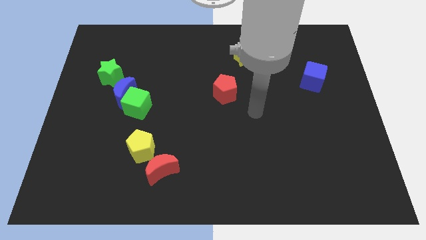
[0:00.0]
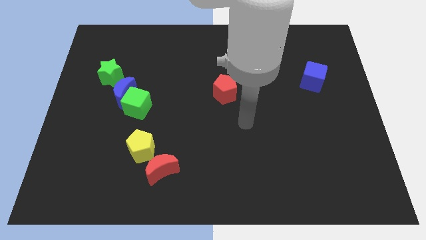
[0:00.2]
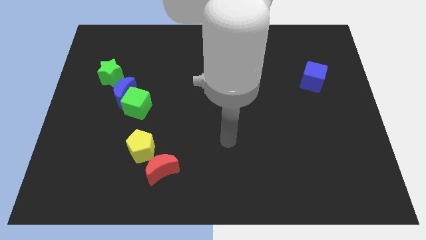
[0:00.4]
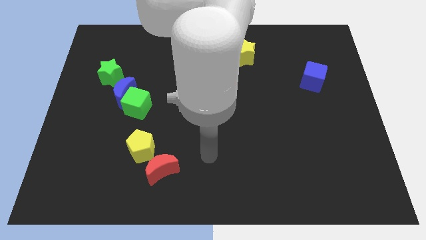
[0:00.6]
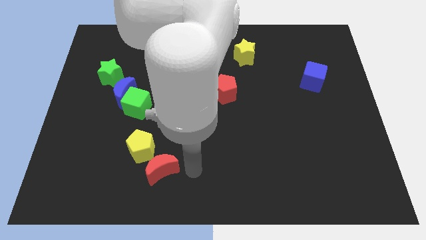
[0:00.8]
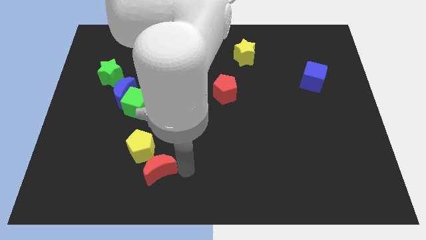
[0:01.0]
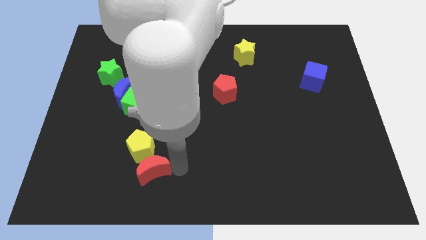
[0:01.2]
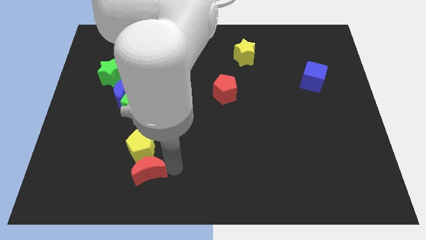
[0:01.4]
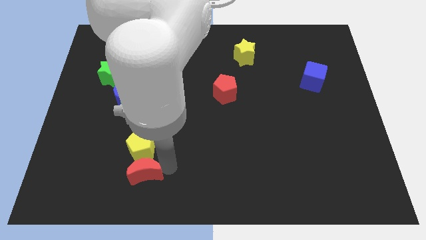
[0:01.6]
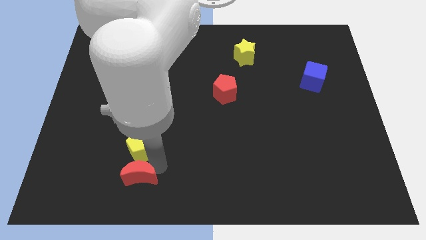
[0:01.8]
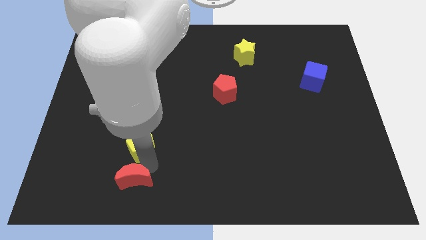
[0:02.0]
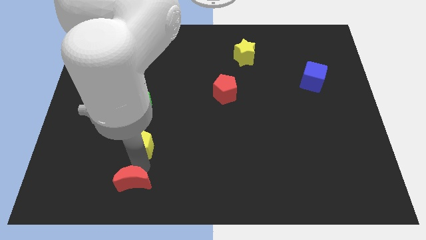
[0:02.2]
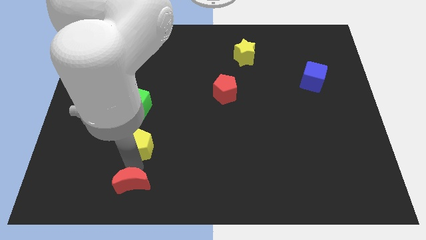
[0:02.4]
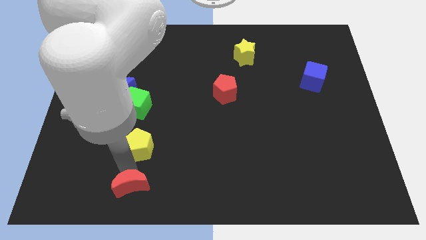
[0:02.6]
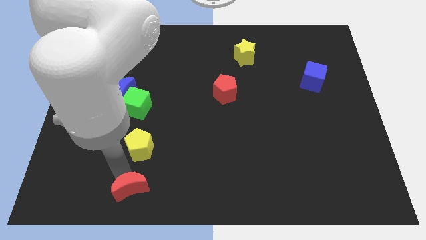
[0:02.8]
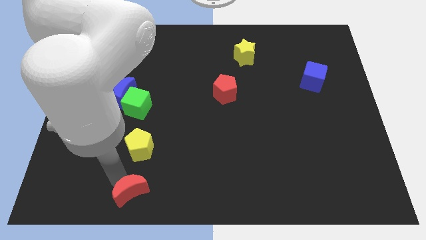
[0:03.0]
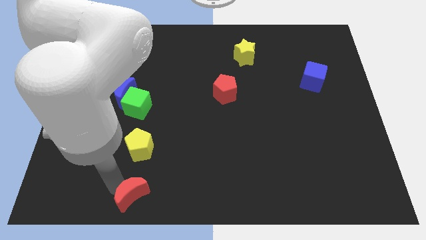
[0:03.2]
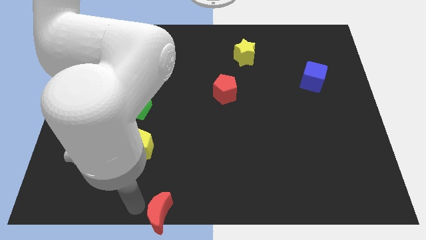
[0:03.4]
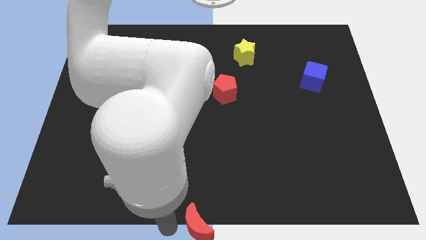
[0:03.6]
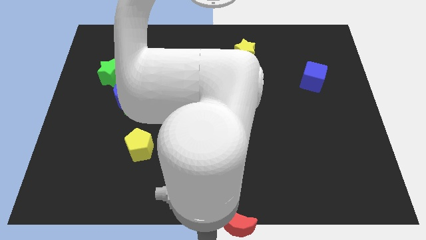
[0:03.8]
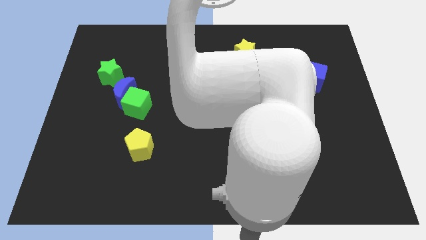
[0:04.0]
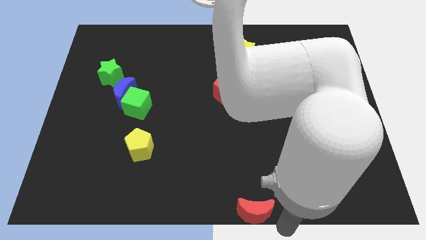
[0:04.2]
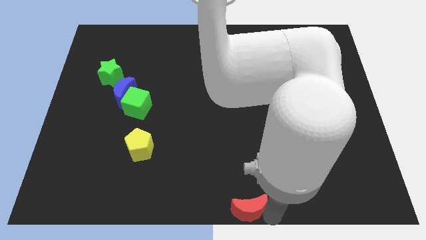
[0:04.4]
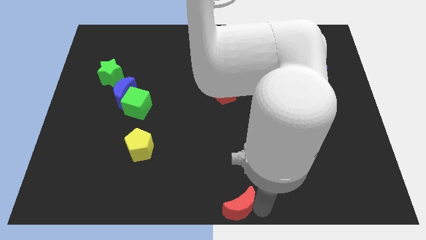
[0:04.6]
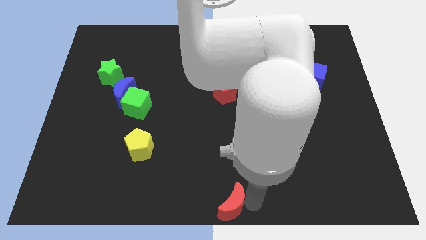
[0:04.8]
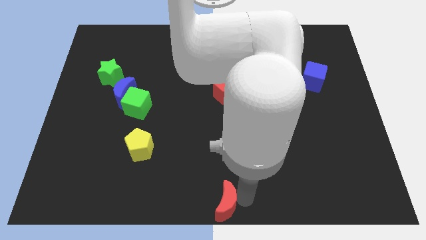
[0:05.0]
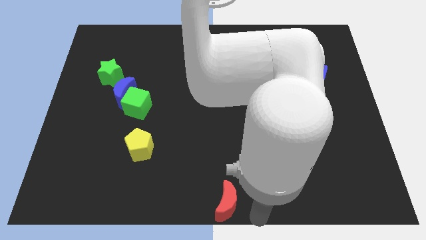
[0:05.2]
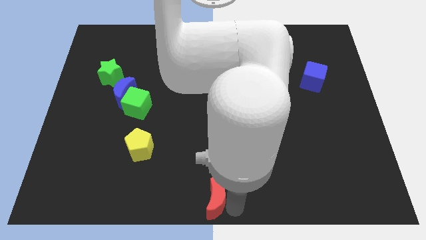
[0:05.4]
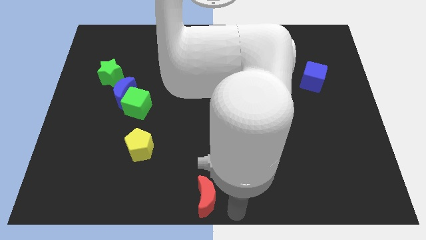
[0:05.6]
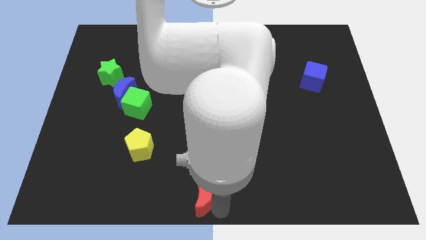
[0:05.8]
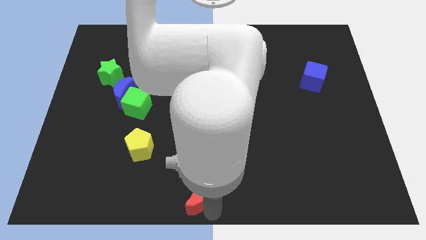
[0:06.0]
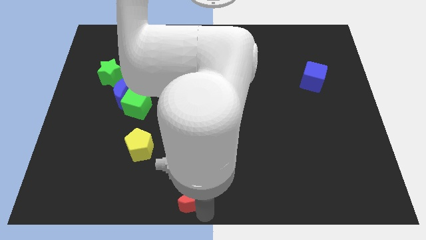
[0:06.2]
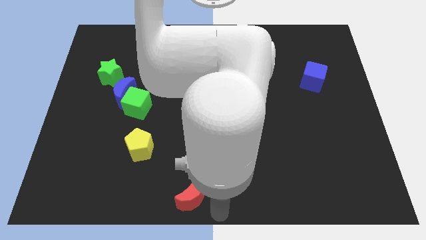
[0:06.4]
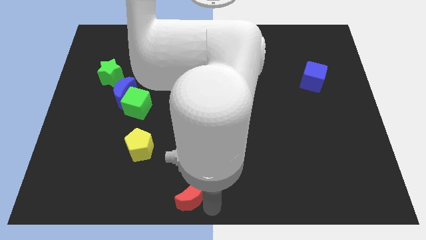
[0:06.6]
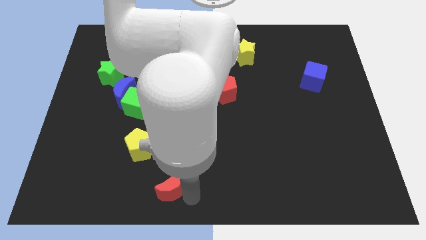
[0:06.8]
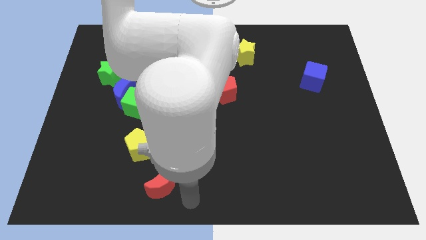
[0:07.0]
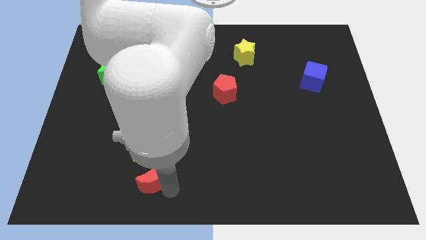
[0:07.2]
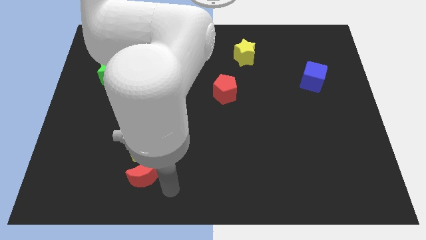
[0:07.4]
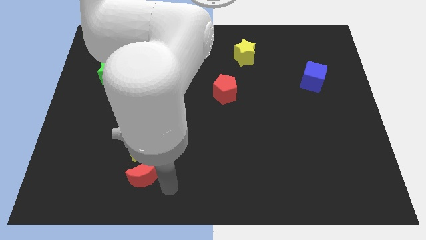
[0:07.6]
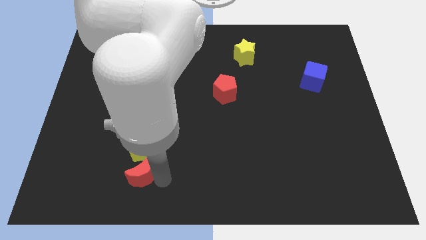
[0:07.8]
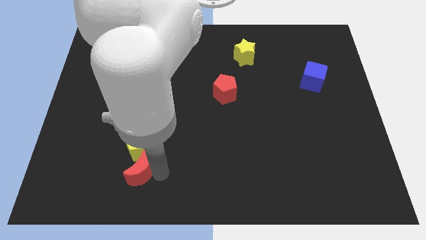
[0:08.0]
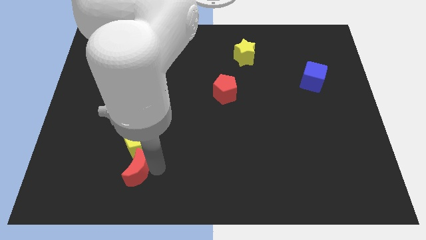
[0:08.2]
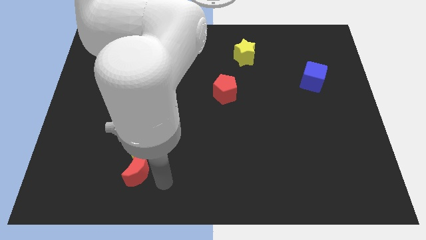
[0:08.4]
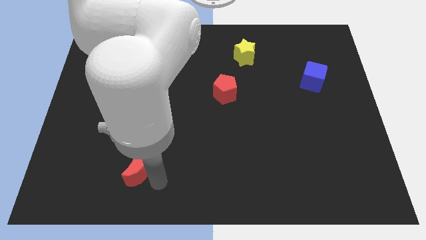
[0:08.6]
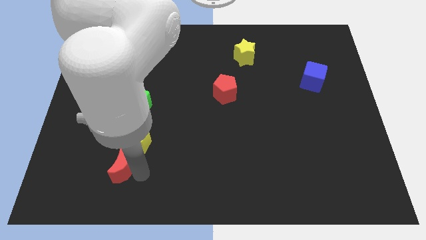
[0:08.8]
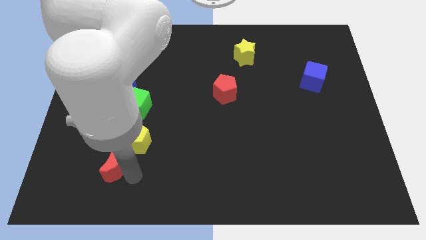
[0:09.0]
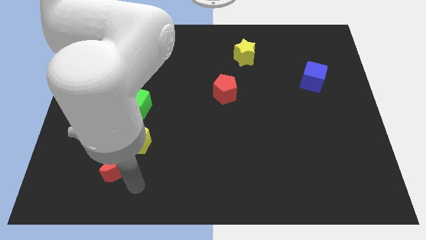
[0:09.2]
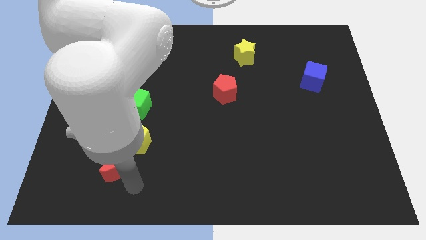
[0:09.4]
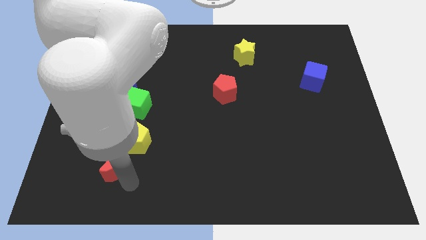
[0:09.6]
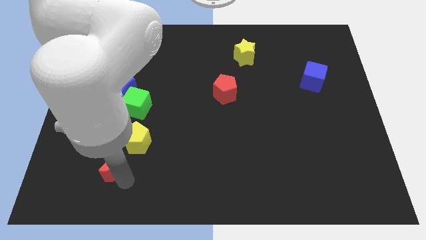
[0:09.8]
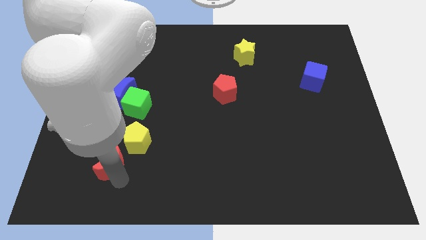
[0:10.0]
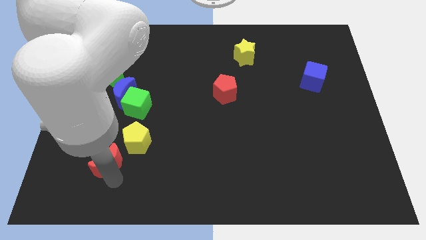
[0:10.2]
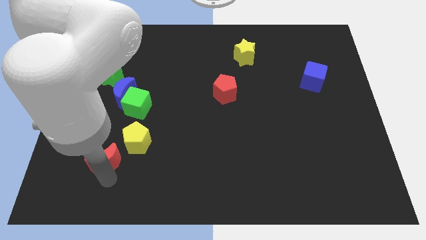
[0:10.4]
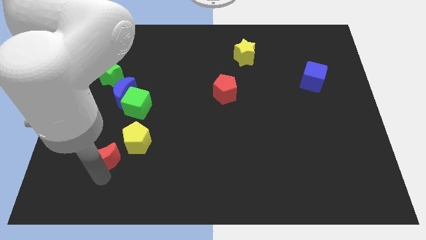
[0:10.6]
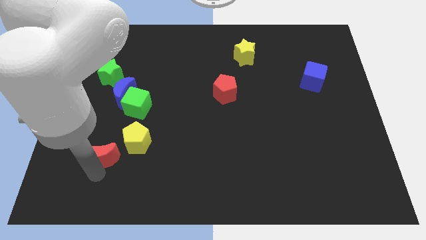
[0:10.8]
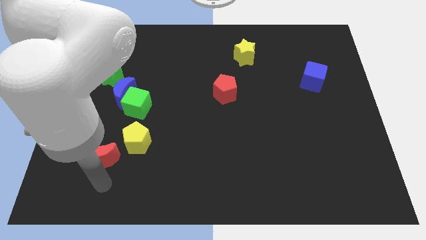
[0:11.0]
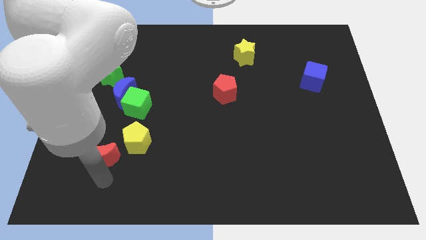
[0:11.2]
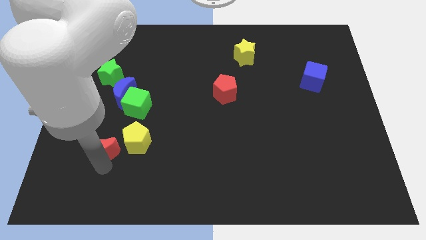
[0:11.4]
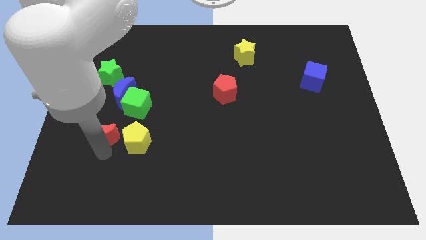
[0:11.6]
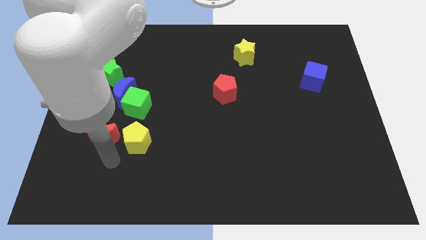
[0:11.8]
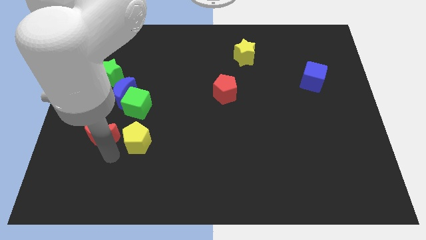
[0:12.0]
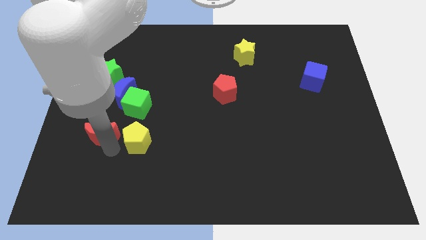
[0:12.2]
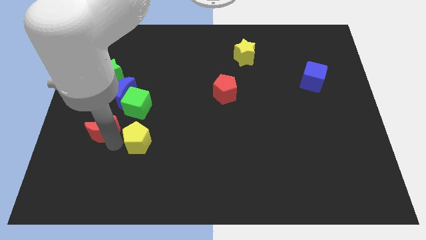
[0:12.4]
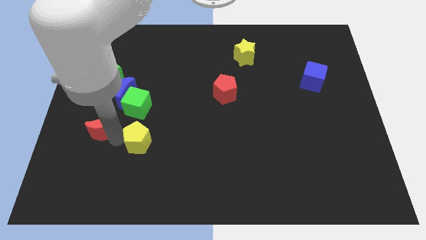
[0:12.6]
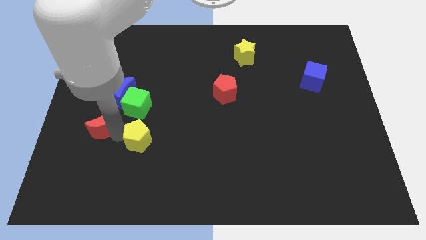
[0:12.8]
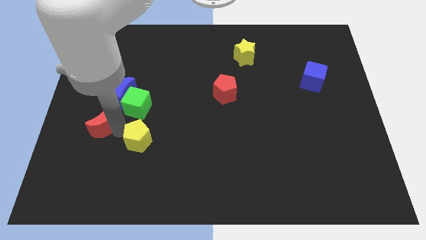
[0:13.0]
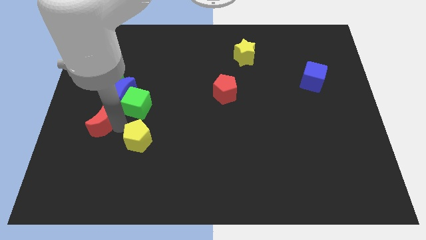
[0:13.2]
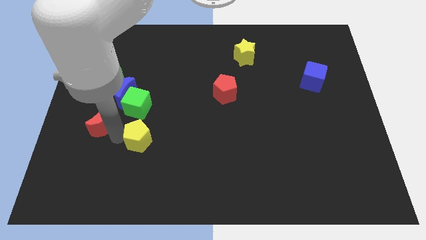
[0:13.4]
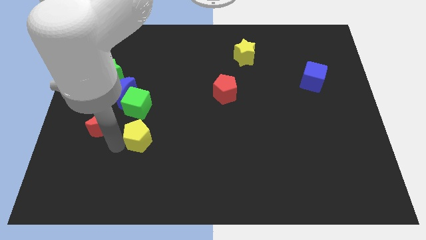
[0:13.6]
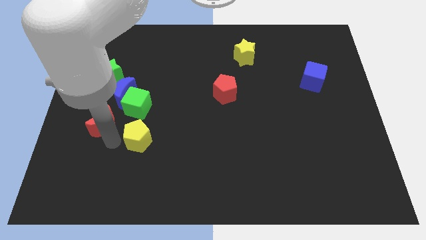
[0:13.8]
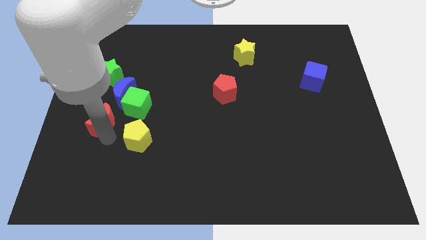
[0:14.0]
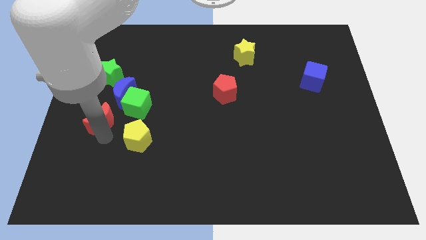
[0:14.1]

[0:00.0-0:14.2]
move the red moon just left of the green cube
